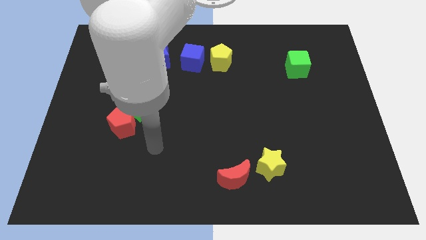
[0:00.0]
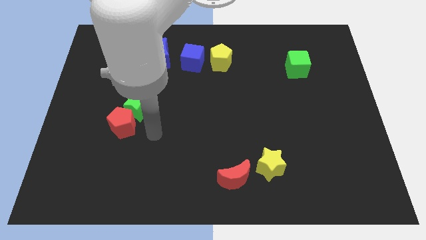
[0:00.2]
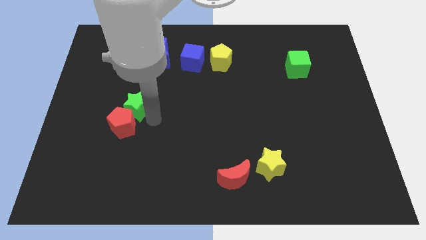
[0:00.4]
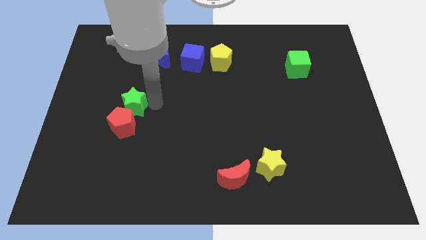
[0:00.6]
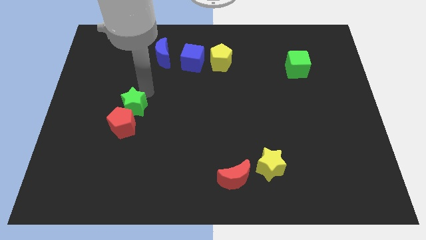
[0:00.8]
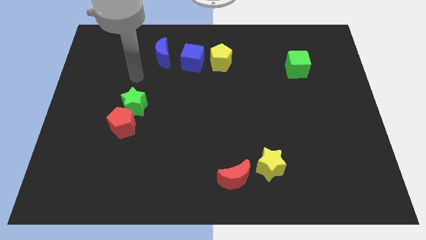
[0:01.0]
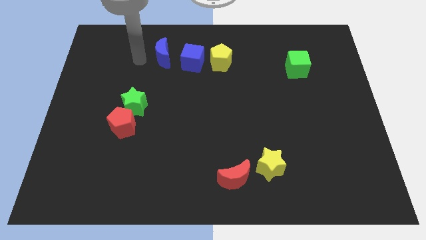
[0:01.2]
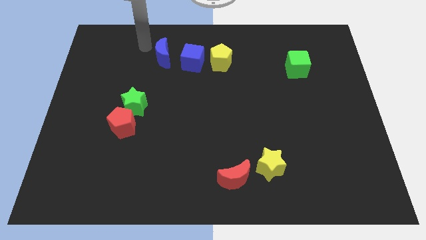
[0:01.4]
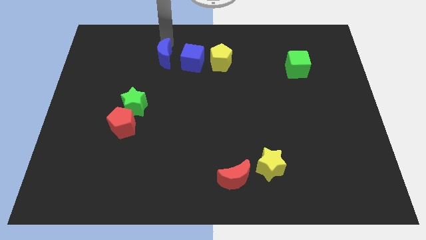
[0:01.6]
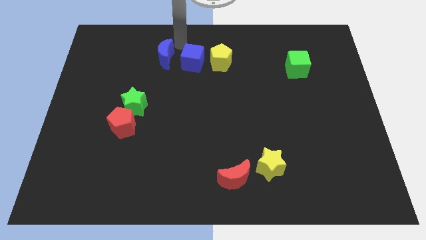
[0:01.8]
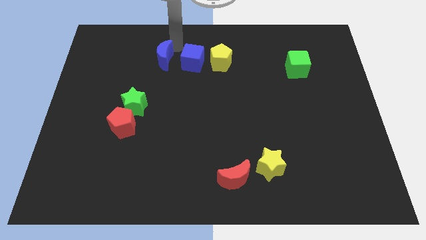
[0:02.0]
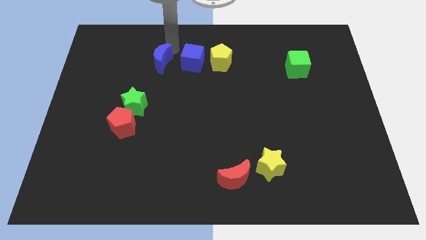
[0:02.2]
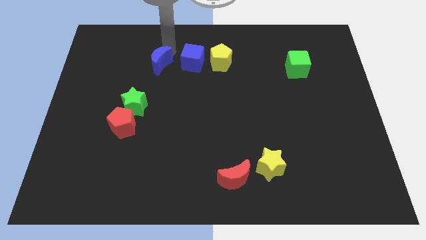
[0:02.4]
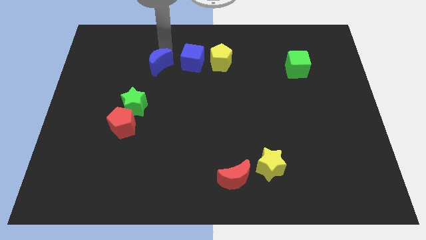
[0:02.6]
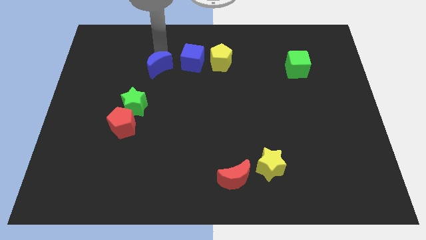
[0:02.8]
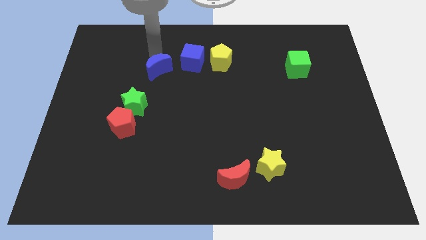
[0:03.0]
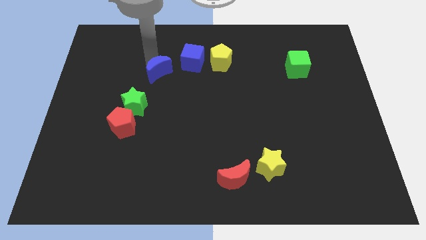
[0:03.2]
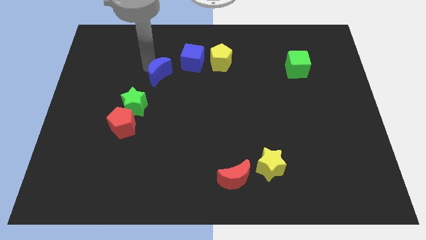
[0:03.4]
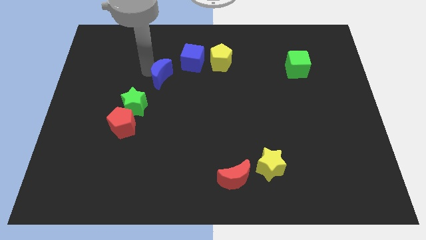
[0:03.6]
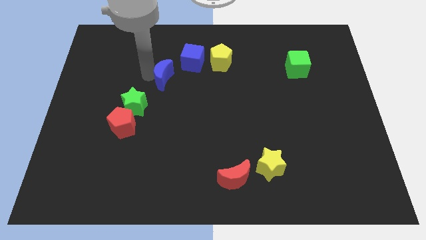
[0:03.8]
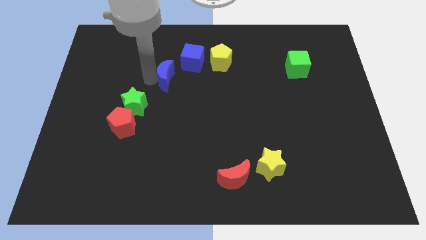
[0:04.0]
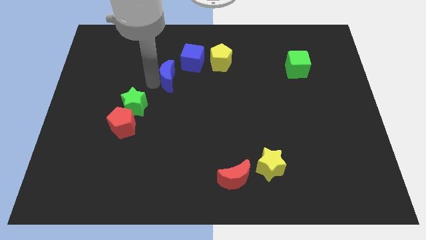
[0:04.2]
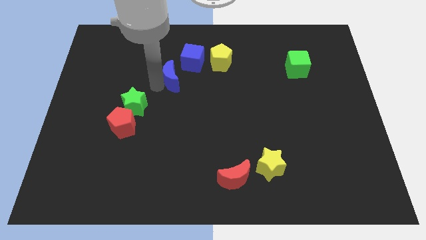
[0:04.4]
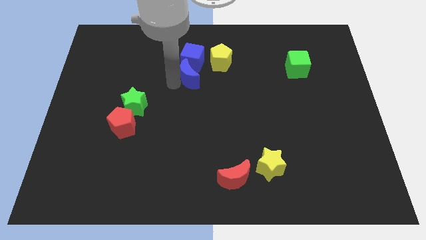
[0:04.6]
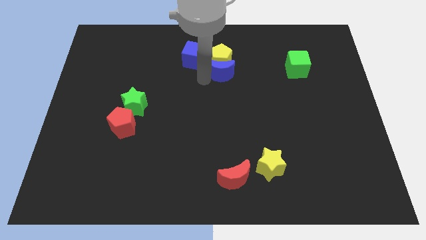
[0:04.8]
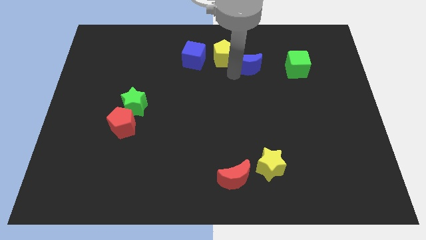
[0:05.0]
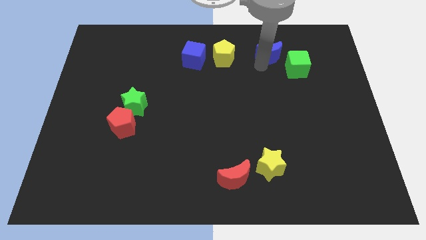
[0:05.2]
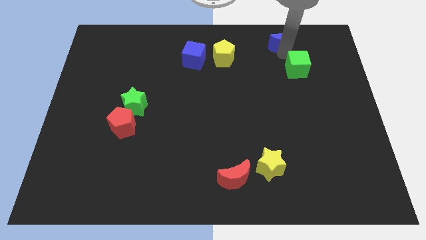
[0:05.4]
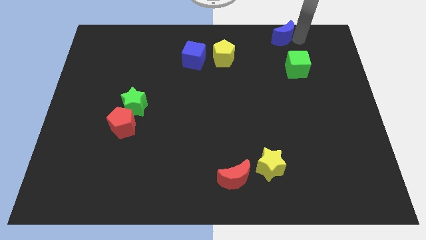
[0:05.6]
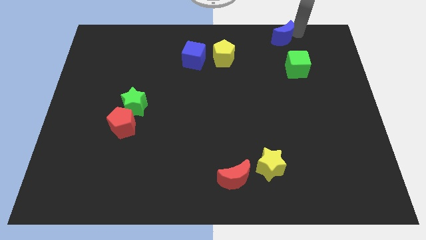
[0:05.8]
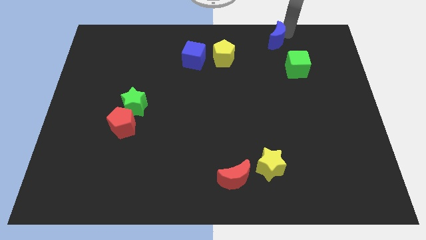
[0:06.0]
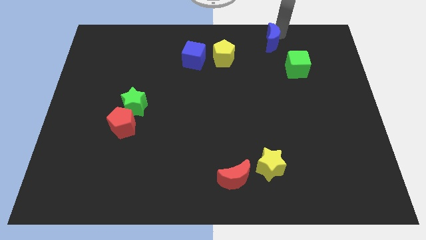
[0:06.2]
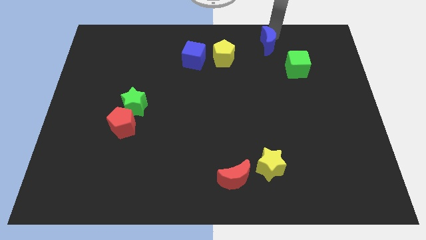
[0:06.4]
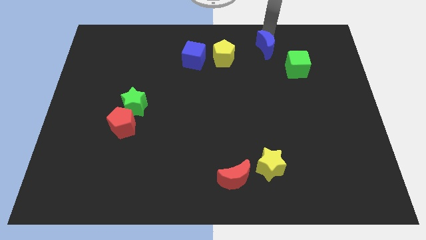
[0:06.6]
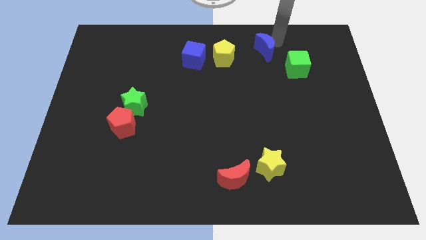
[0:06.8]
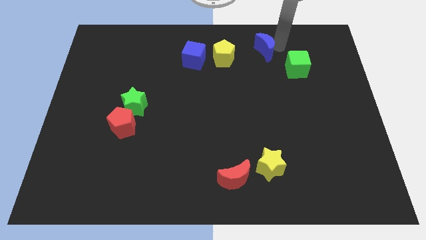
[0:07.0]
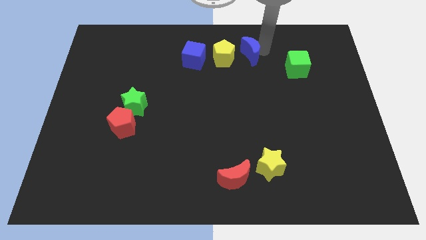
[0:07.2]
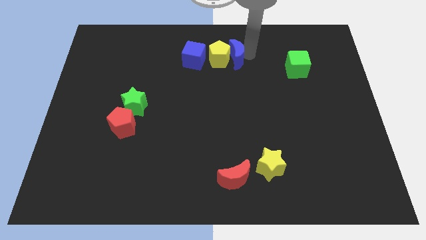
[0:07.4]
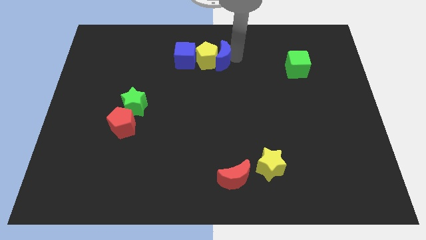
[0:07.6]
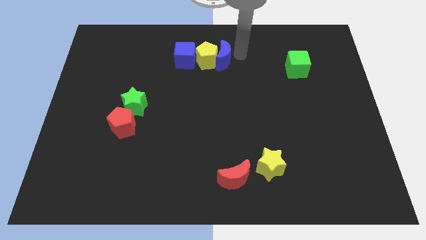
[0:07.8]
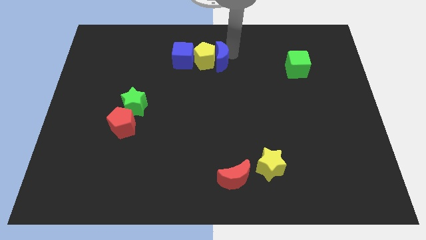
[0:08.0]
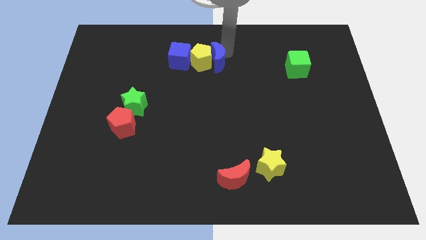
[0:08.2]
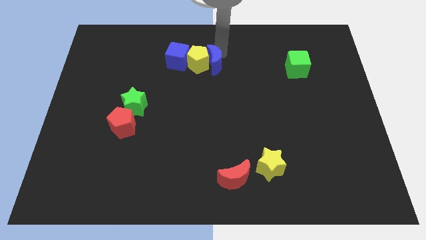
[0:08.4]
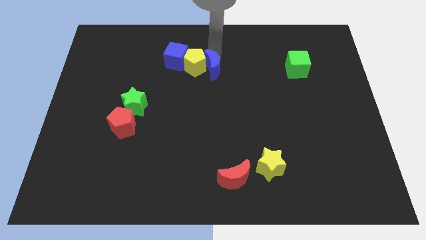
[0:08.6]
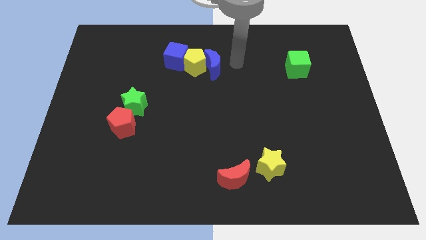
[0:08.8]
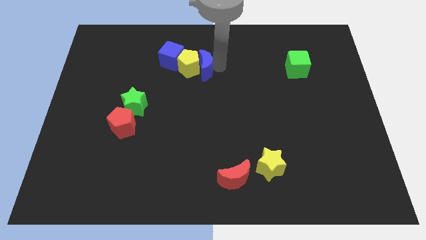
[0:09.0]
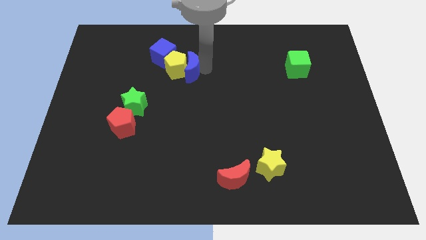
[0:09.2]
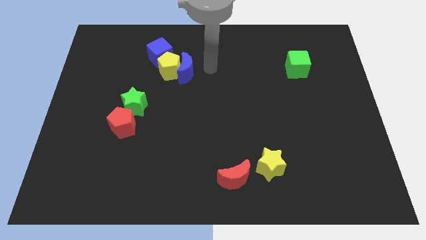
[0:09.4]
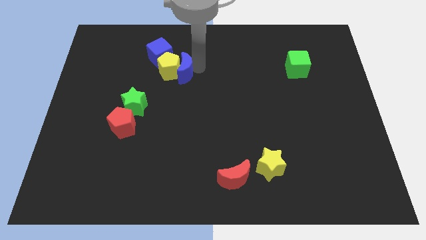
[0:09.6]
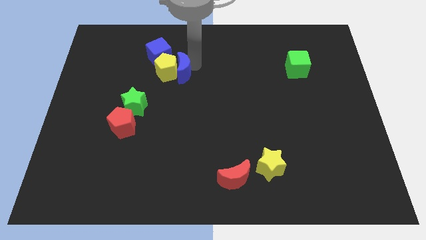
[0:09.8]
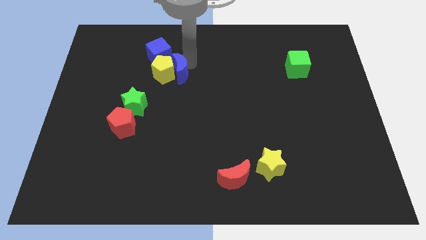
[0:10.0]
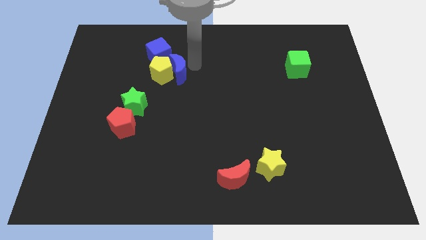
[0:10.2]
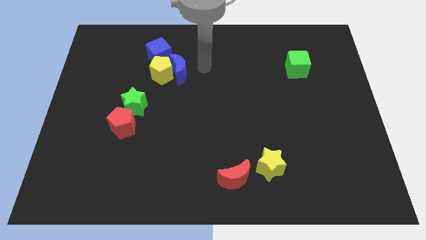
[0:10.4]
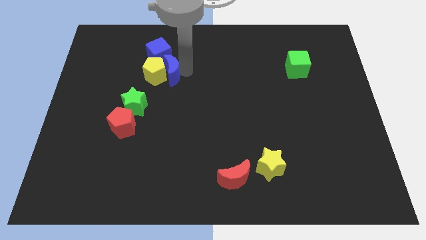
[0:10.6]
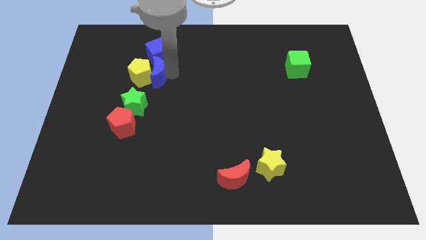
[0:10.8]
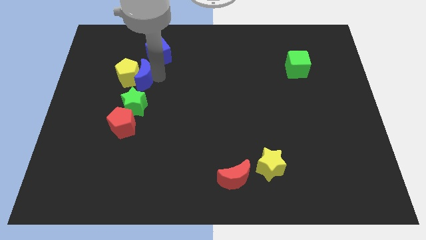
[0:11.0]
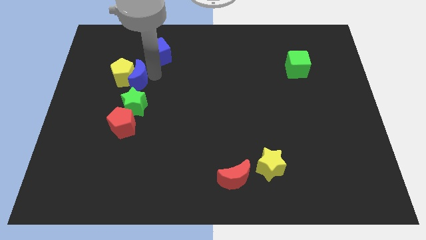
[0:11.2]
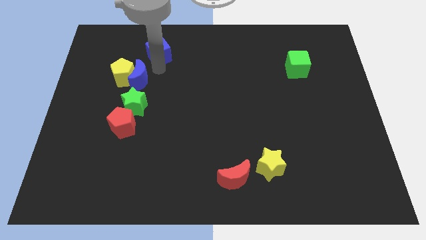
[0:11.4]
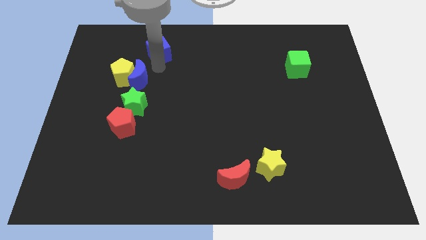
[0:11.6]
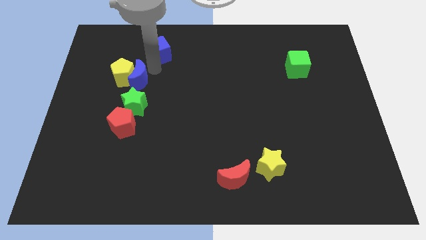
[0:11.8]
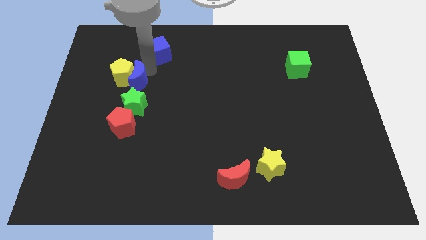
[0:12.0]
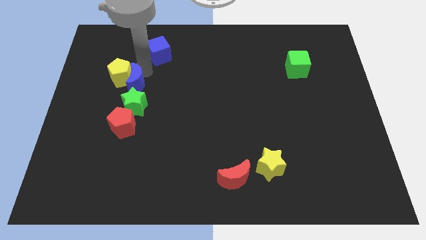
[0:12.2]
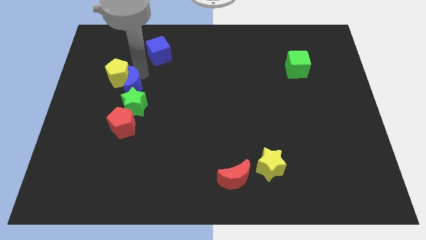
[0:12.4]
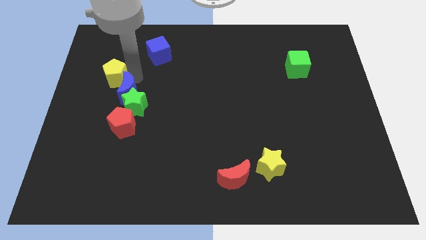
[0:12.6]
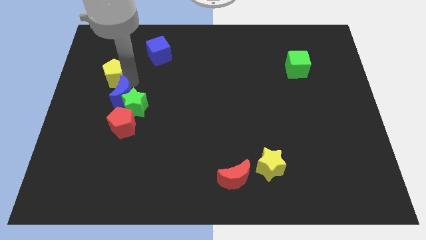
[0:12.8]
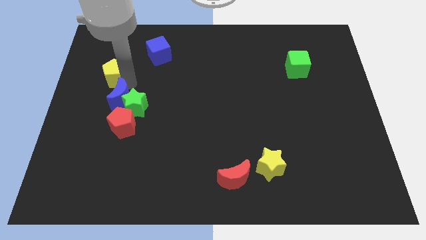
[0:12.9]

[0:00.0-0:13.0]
put the blue moon to the top left of the red pentagon

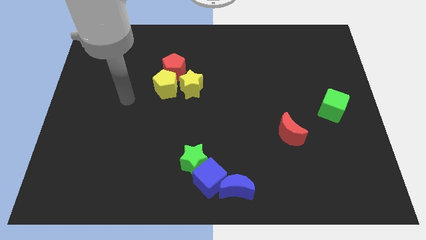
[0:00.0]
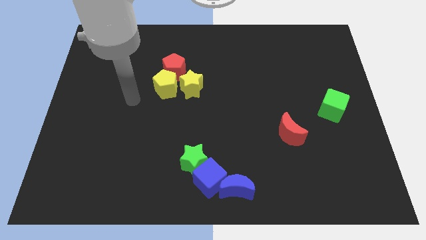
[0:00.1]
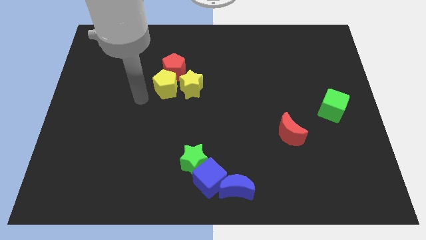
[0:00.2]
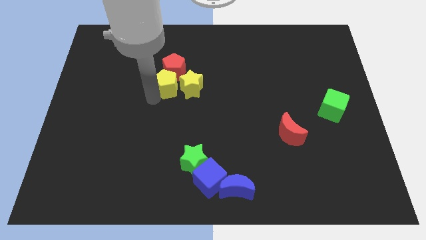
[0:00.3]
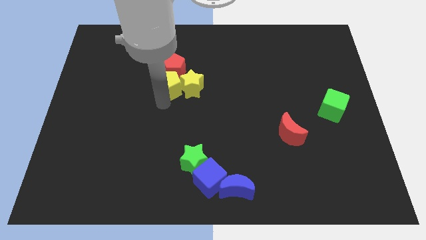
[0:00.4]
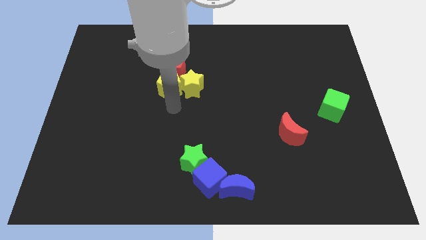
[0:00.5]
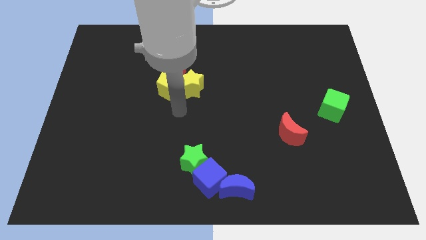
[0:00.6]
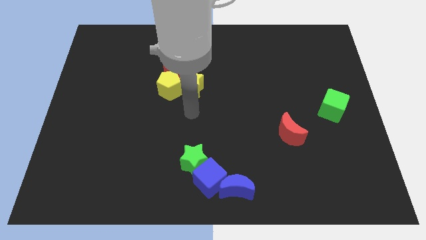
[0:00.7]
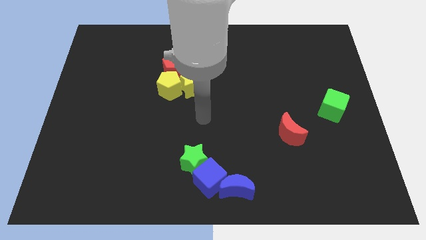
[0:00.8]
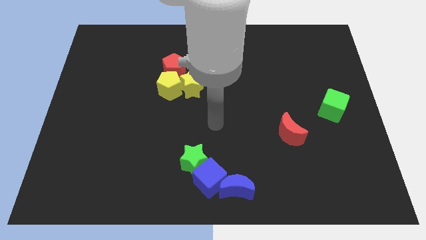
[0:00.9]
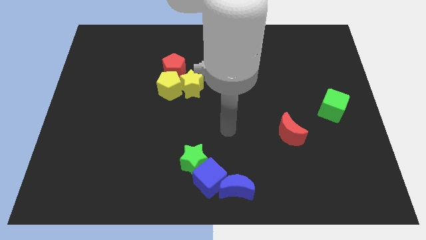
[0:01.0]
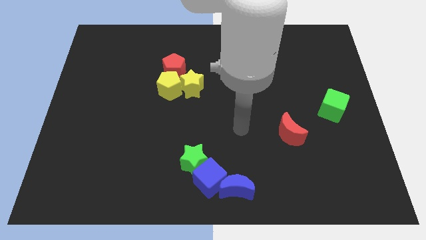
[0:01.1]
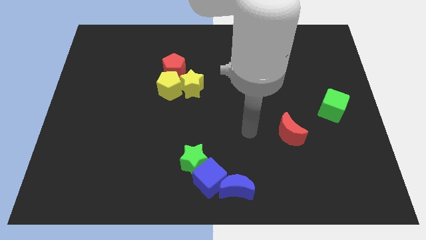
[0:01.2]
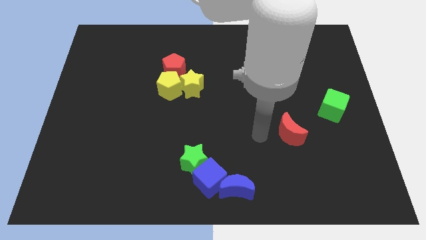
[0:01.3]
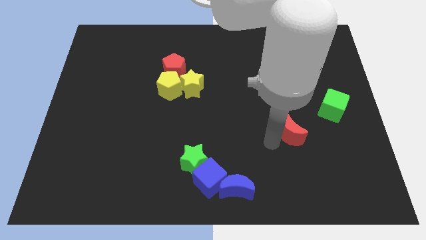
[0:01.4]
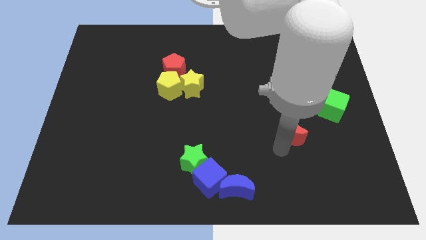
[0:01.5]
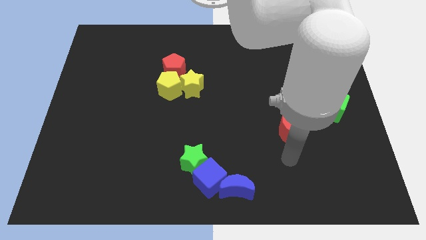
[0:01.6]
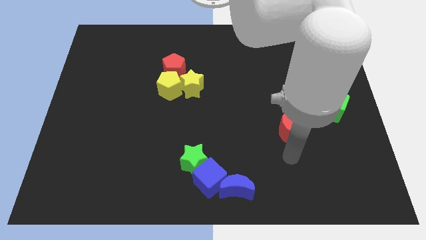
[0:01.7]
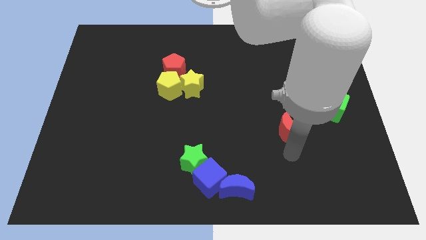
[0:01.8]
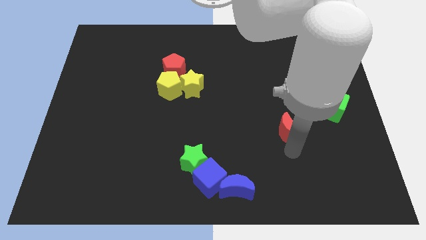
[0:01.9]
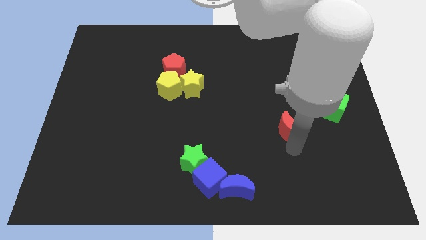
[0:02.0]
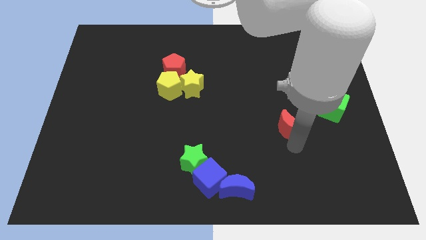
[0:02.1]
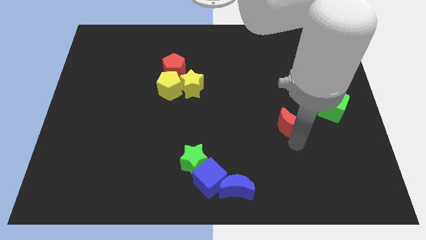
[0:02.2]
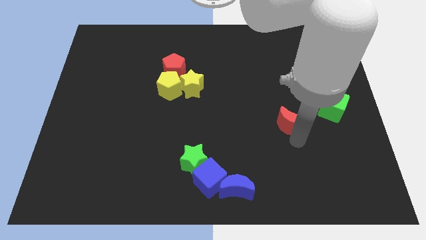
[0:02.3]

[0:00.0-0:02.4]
slide the red moon left of the green cube
